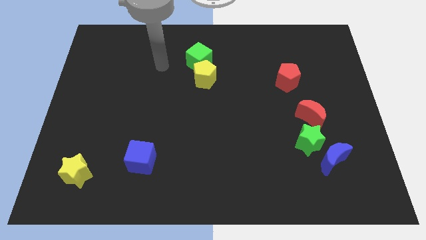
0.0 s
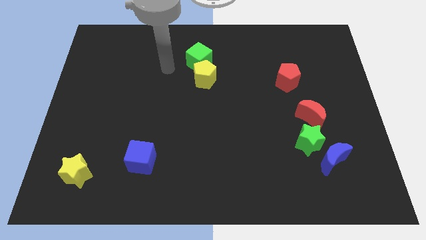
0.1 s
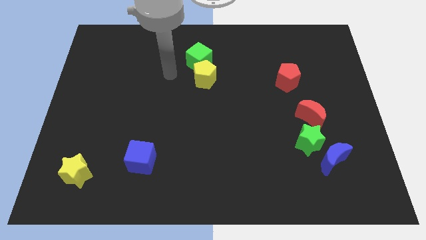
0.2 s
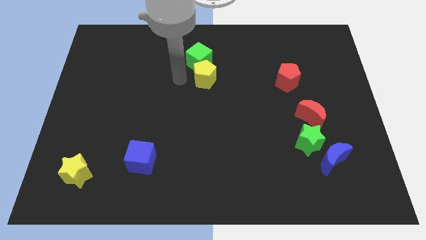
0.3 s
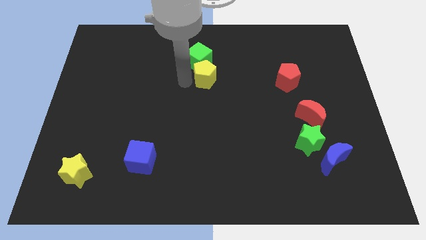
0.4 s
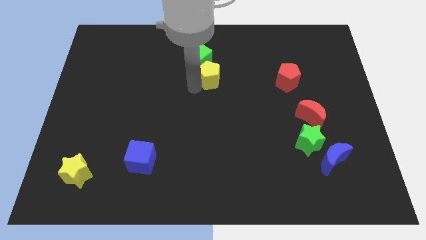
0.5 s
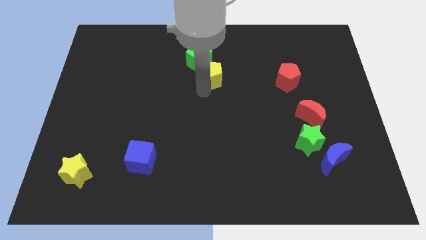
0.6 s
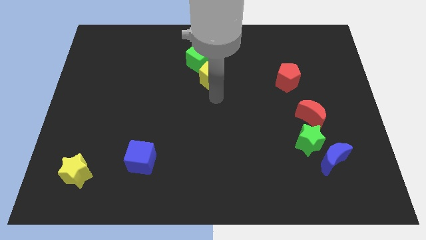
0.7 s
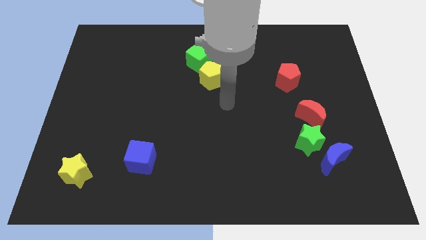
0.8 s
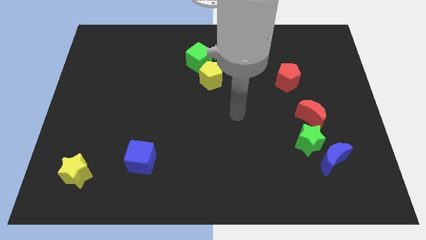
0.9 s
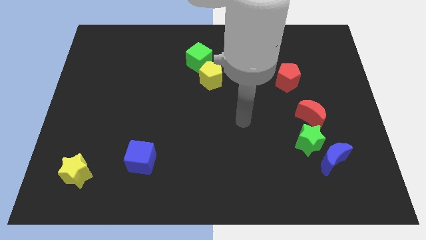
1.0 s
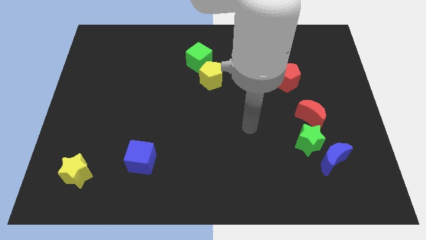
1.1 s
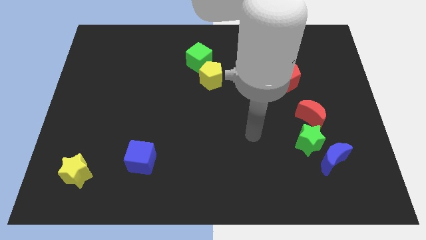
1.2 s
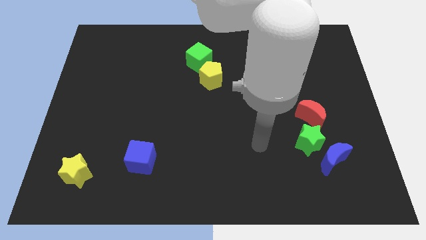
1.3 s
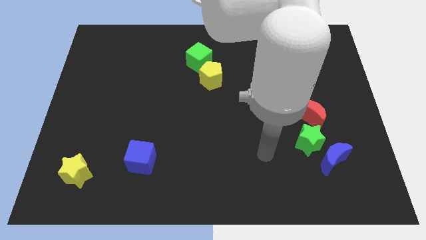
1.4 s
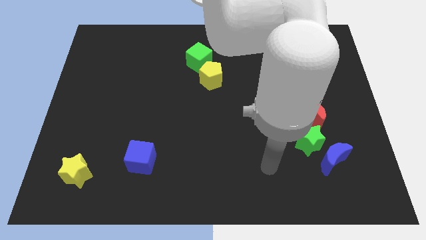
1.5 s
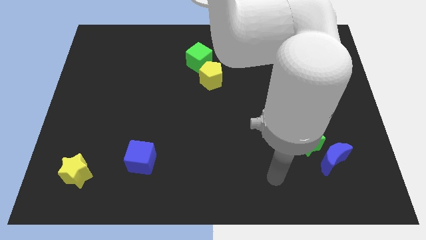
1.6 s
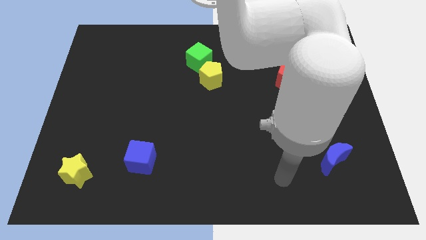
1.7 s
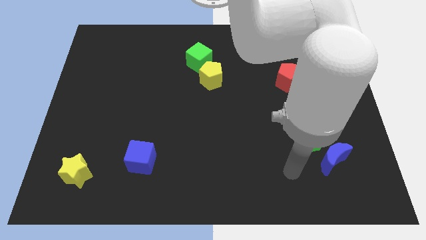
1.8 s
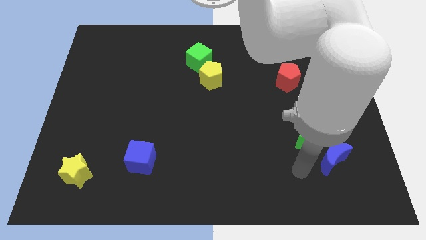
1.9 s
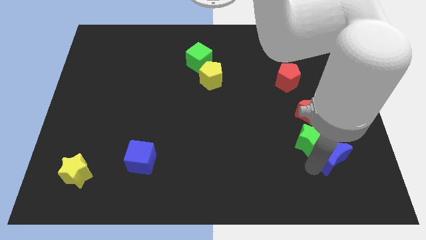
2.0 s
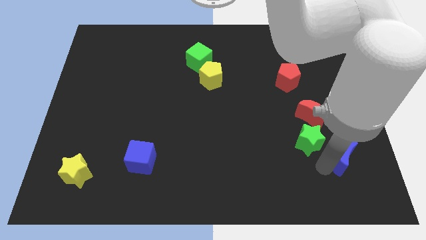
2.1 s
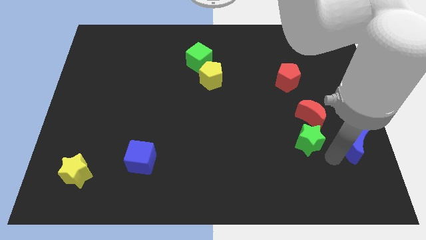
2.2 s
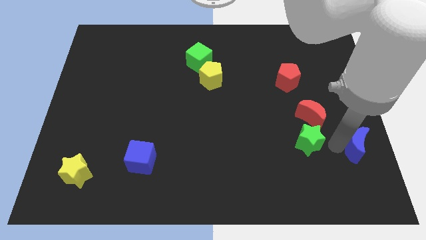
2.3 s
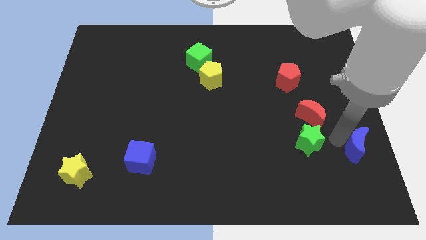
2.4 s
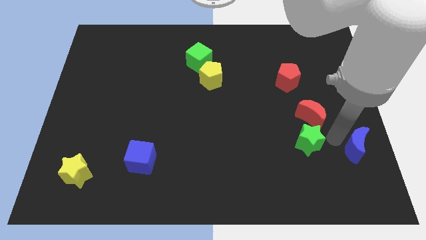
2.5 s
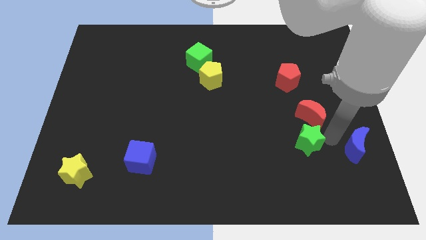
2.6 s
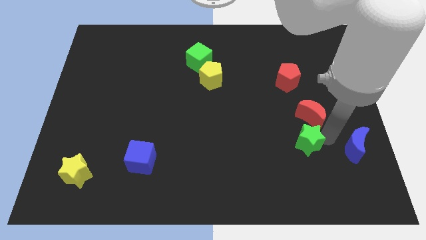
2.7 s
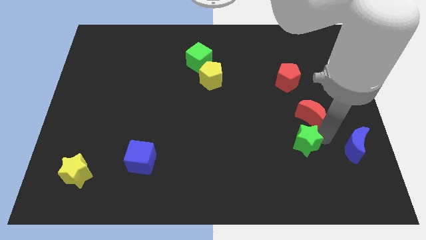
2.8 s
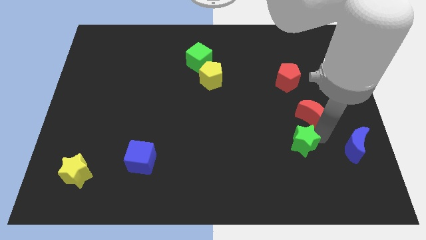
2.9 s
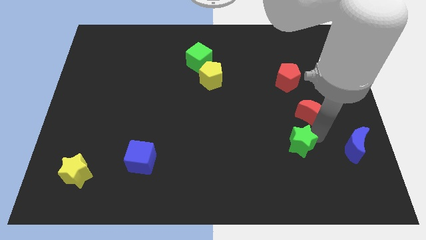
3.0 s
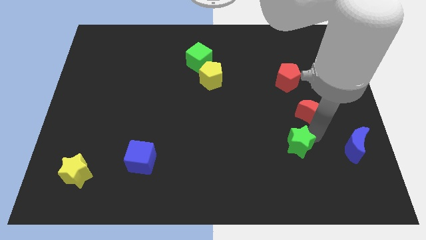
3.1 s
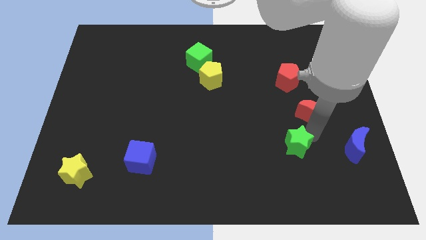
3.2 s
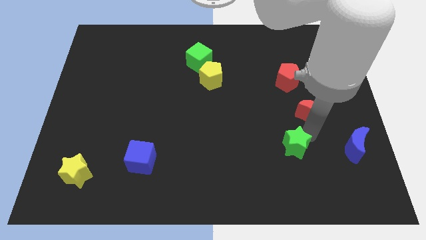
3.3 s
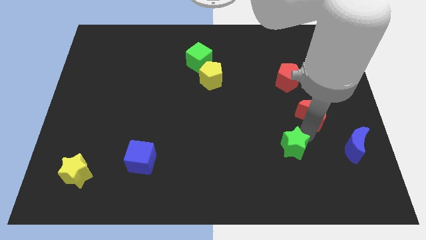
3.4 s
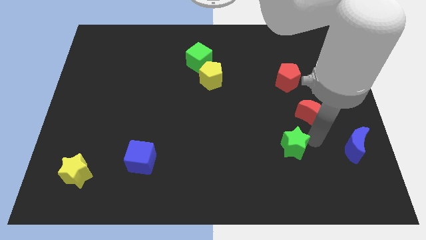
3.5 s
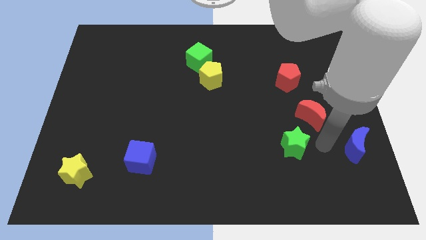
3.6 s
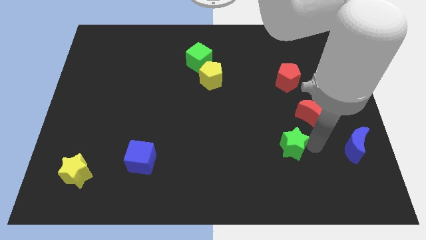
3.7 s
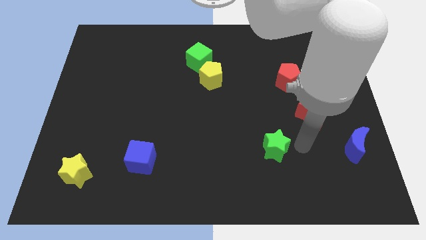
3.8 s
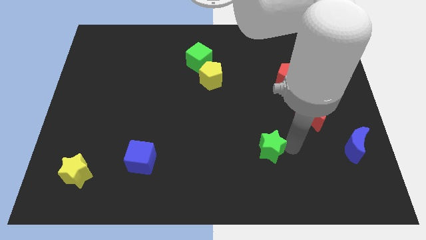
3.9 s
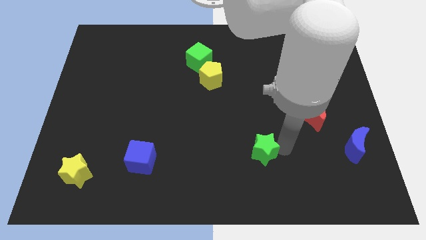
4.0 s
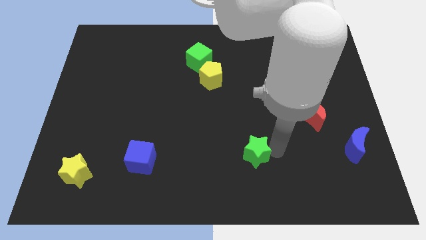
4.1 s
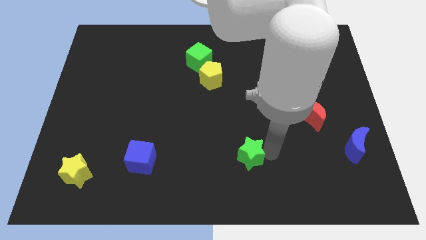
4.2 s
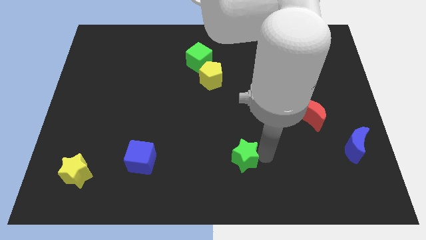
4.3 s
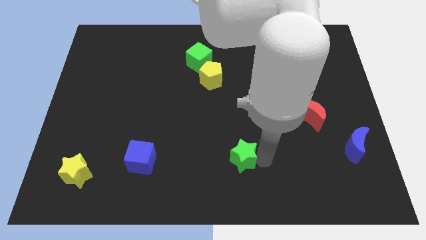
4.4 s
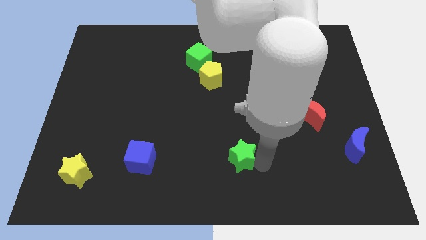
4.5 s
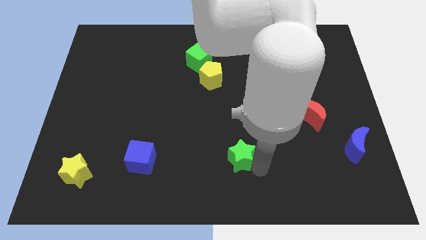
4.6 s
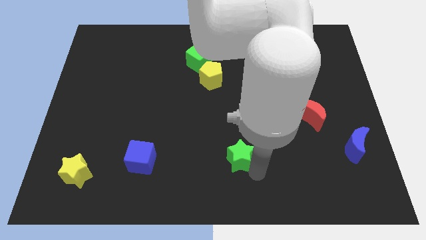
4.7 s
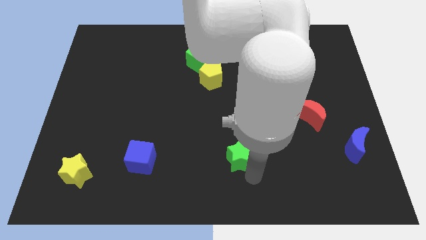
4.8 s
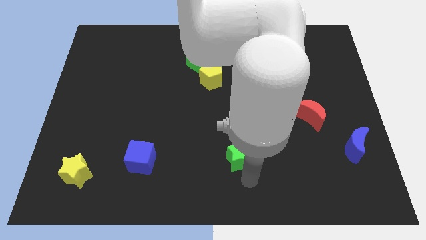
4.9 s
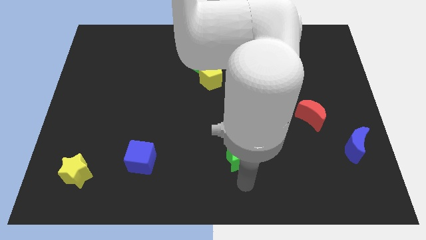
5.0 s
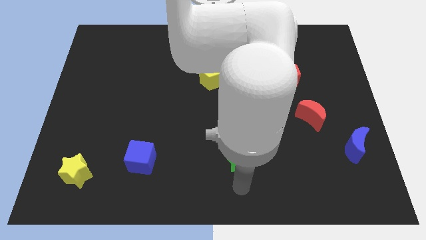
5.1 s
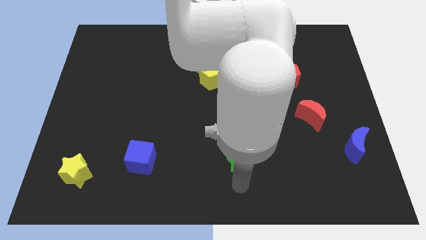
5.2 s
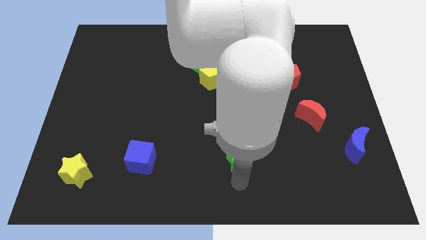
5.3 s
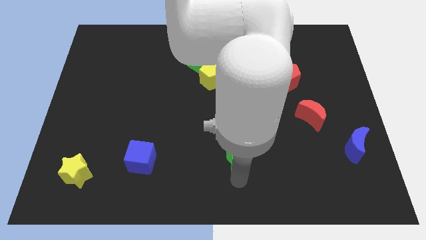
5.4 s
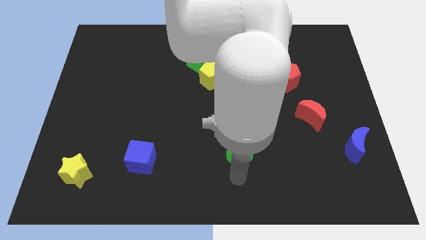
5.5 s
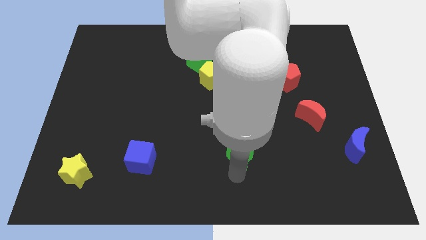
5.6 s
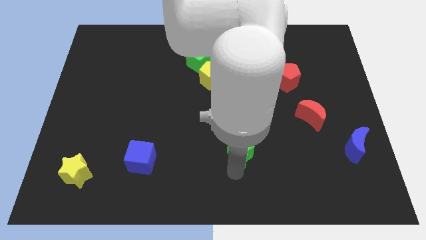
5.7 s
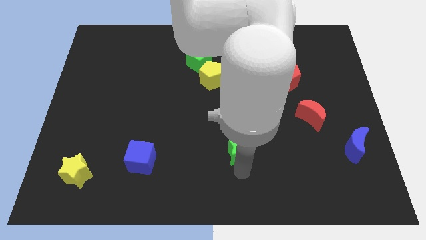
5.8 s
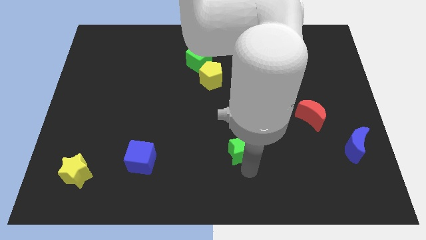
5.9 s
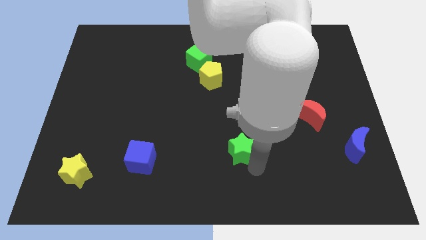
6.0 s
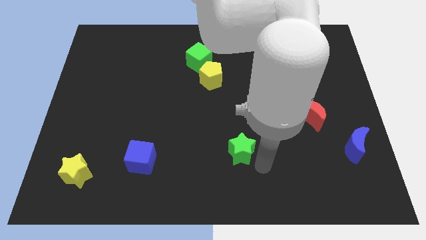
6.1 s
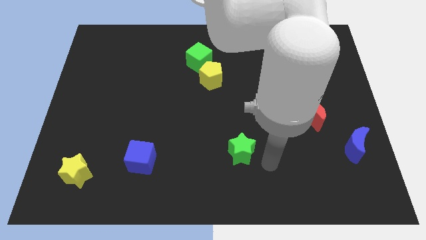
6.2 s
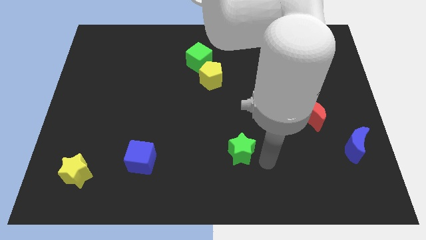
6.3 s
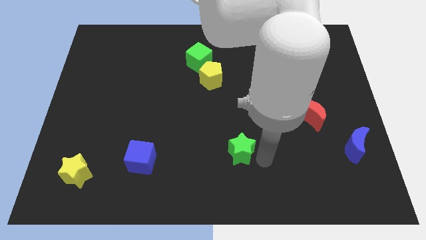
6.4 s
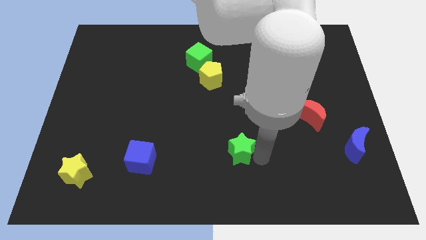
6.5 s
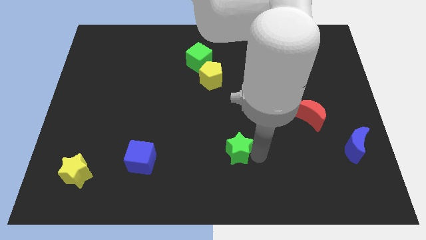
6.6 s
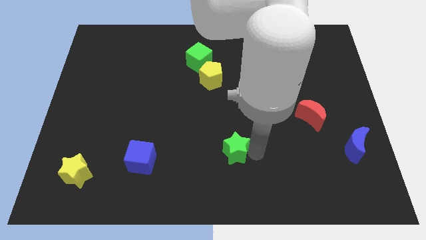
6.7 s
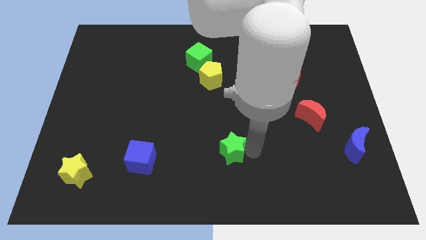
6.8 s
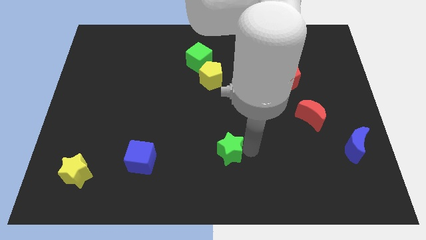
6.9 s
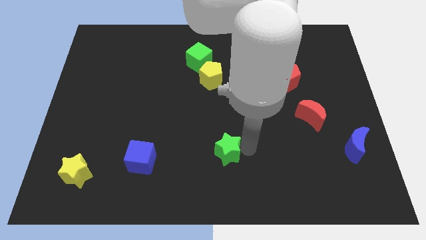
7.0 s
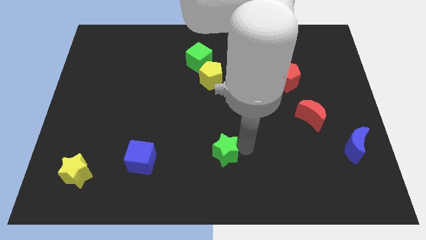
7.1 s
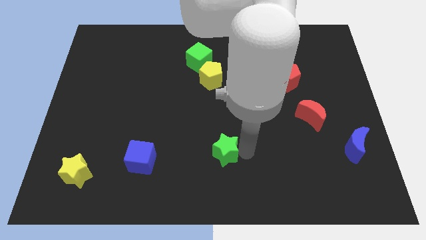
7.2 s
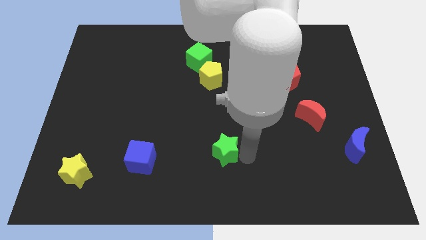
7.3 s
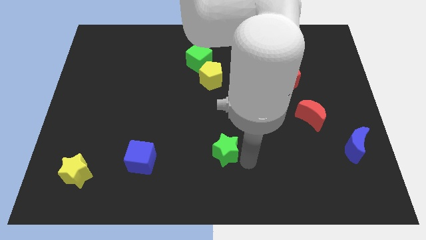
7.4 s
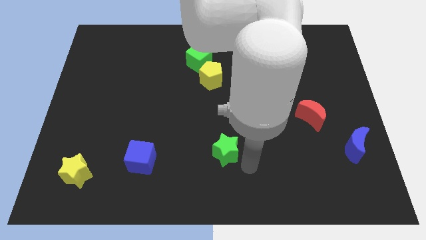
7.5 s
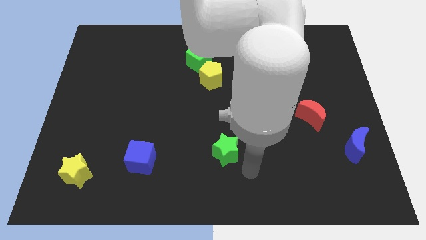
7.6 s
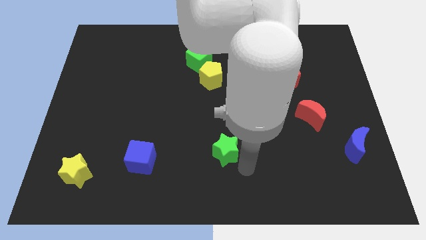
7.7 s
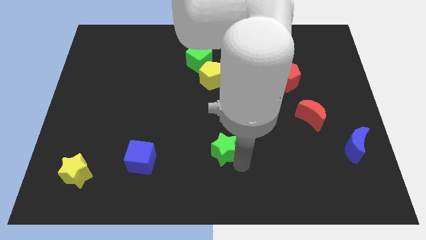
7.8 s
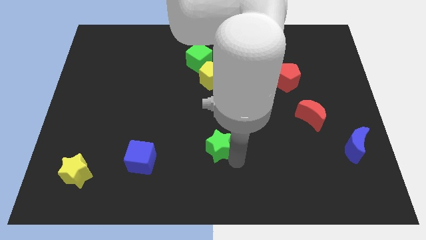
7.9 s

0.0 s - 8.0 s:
push the green star to the left
